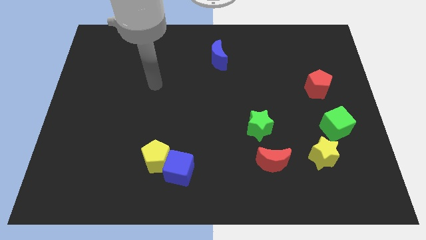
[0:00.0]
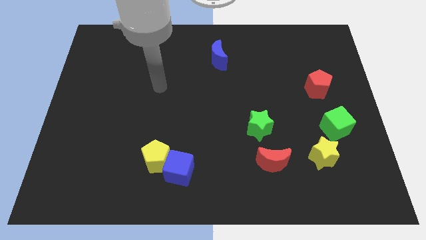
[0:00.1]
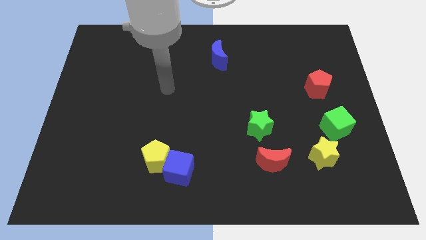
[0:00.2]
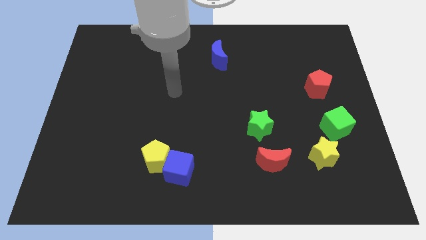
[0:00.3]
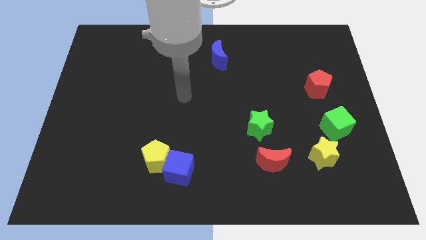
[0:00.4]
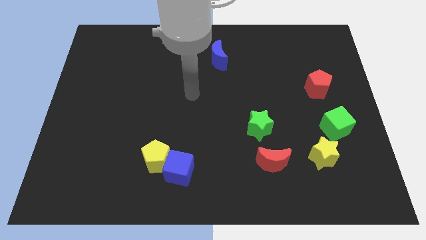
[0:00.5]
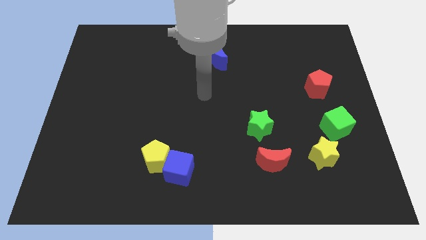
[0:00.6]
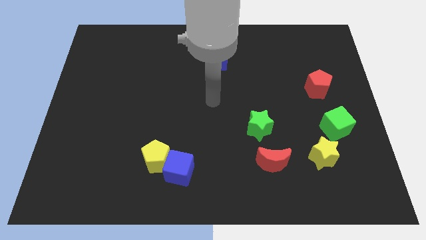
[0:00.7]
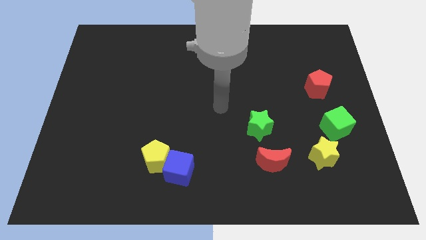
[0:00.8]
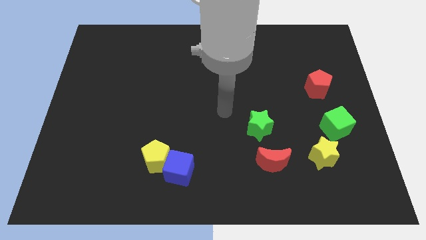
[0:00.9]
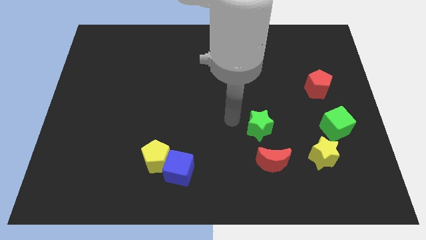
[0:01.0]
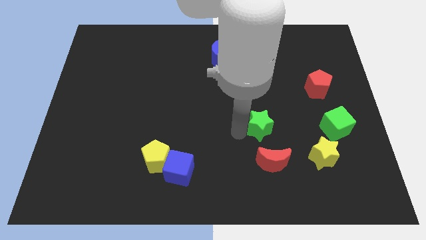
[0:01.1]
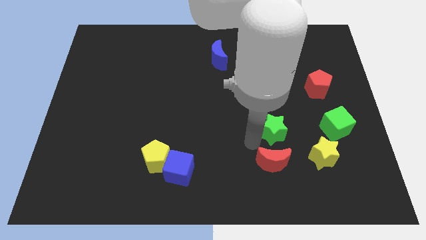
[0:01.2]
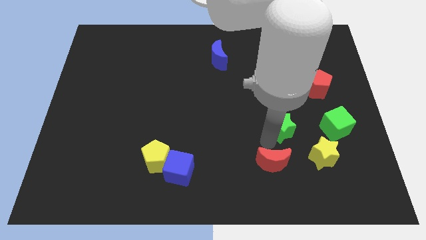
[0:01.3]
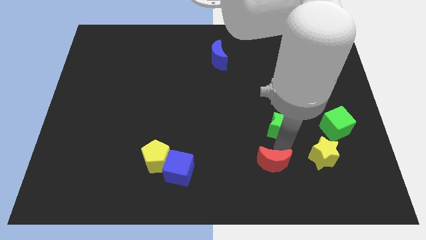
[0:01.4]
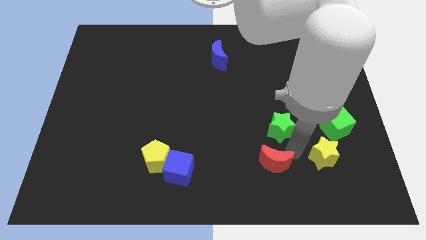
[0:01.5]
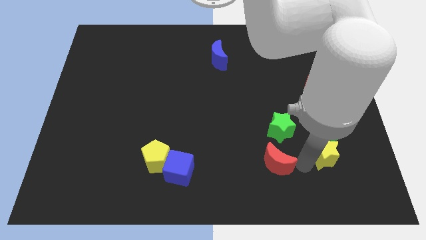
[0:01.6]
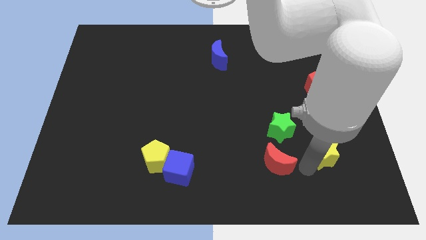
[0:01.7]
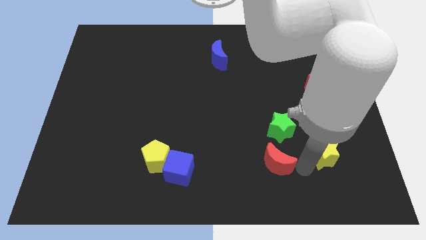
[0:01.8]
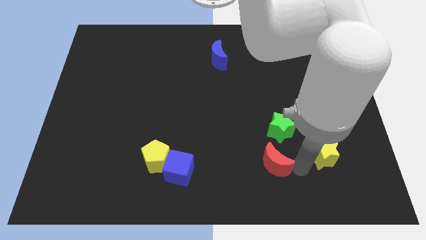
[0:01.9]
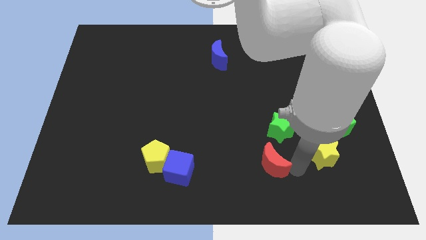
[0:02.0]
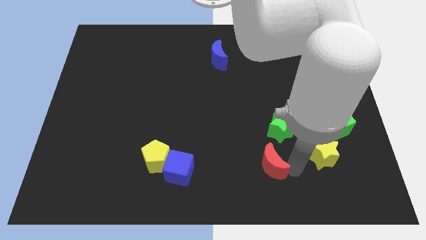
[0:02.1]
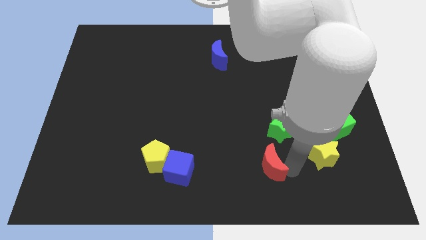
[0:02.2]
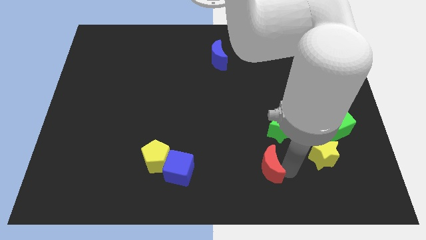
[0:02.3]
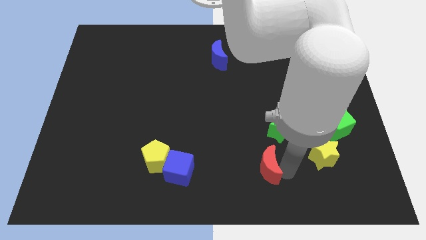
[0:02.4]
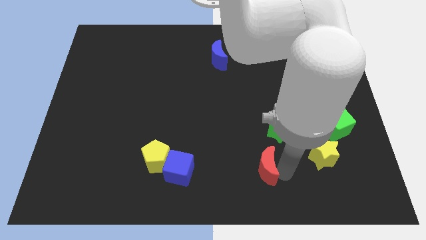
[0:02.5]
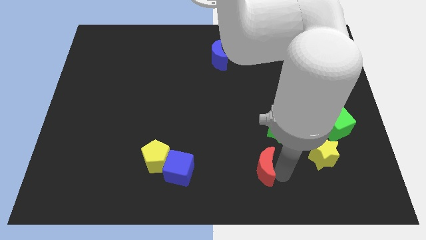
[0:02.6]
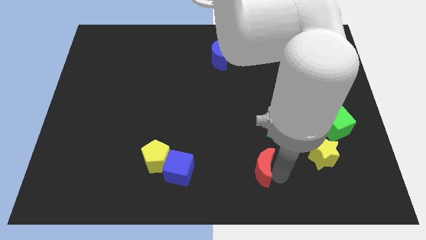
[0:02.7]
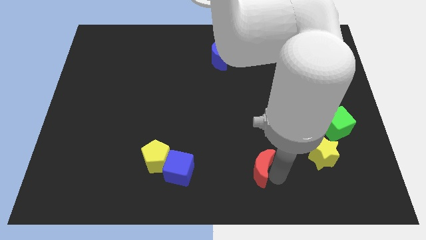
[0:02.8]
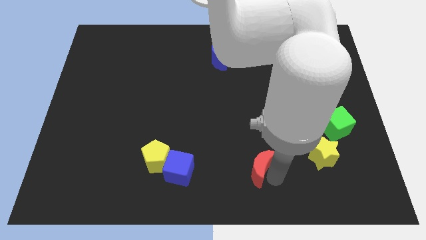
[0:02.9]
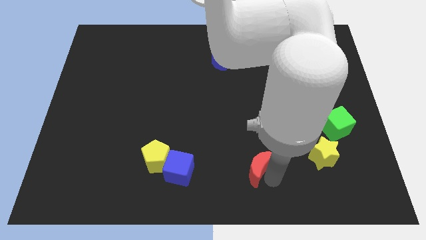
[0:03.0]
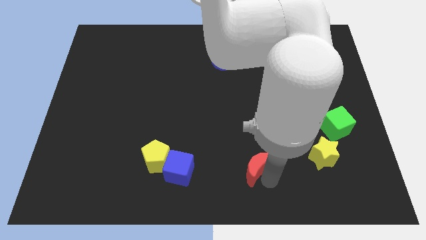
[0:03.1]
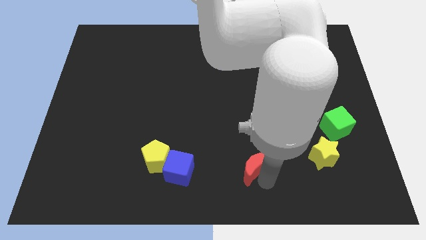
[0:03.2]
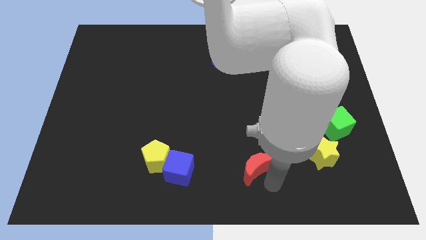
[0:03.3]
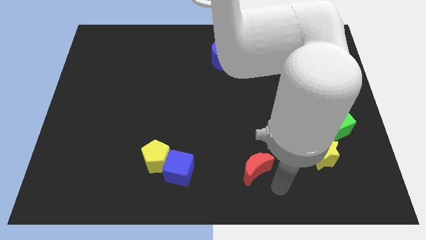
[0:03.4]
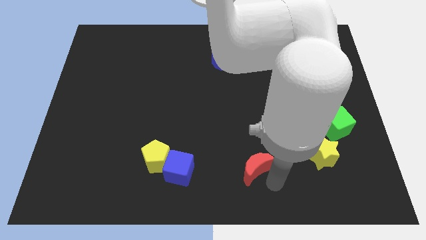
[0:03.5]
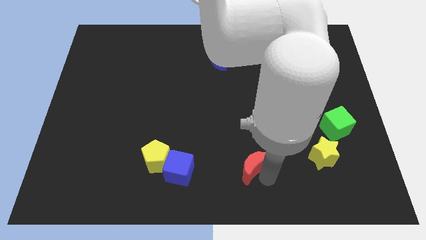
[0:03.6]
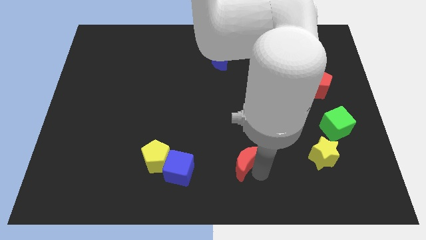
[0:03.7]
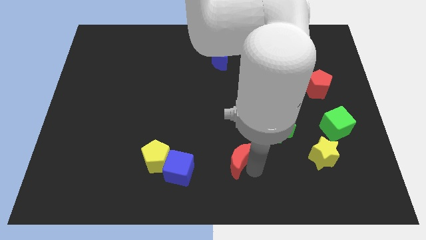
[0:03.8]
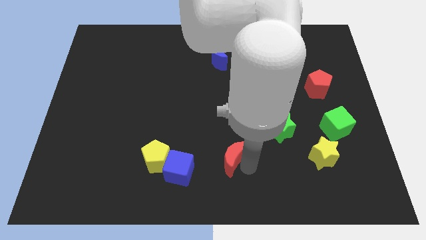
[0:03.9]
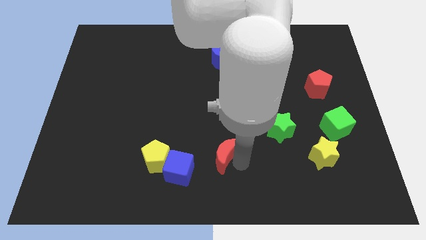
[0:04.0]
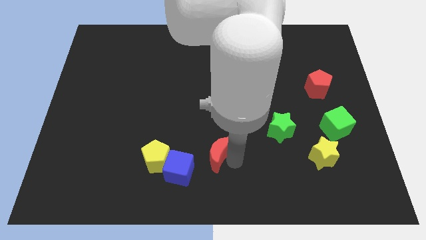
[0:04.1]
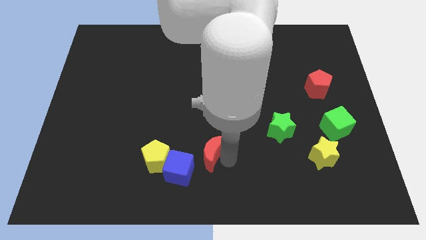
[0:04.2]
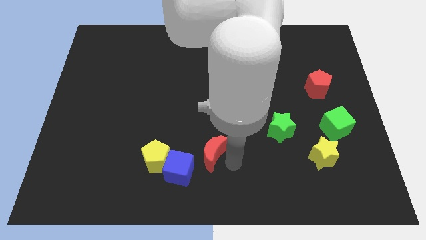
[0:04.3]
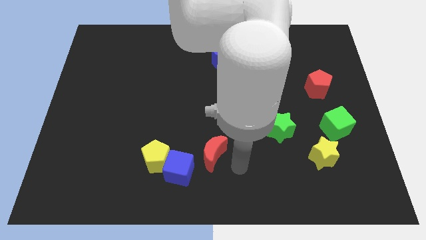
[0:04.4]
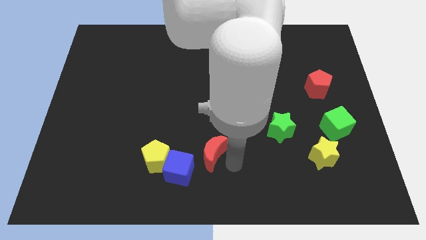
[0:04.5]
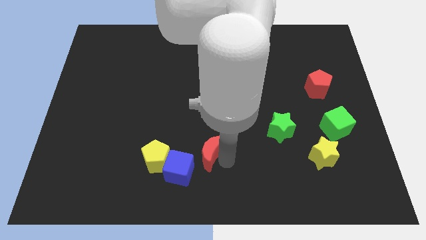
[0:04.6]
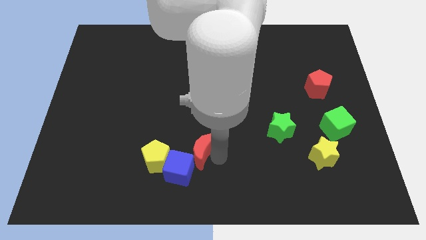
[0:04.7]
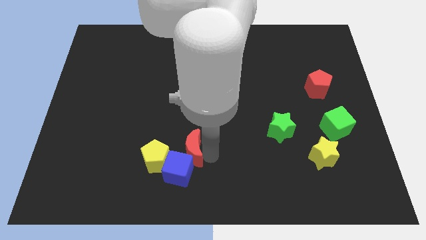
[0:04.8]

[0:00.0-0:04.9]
push the red moon to the top right of the yellow pentagon

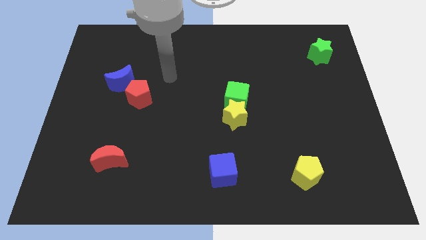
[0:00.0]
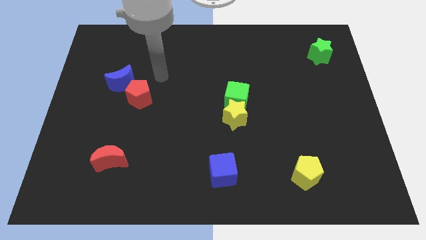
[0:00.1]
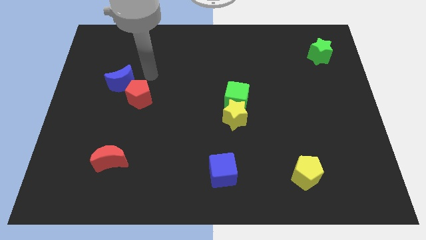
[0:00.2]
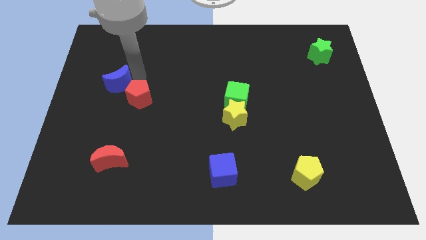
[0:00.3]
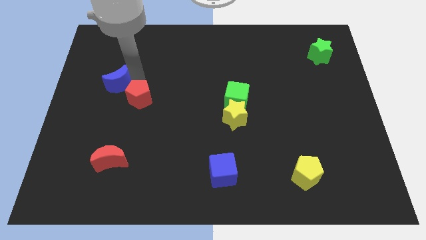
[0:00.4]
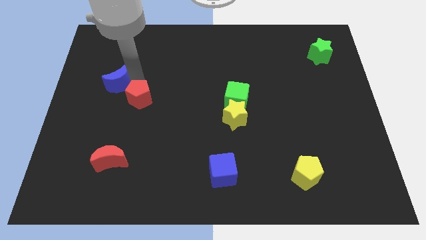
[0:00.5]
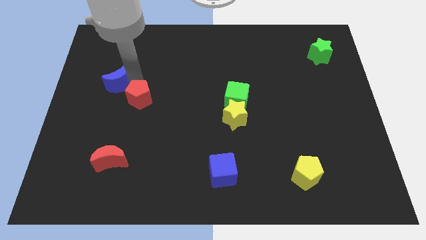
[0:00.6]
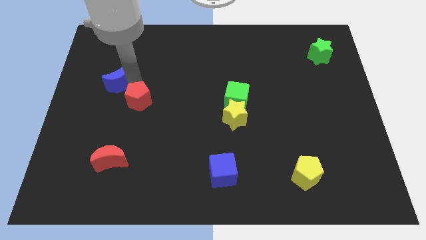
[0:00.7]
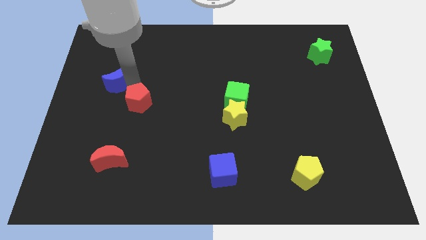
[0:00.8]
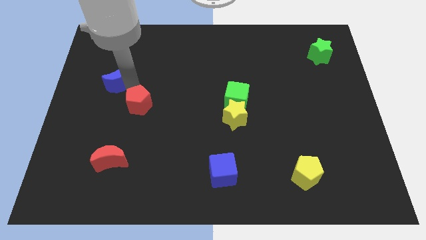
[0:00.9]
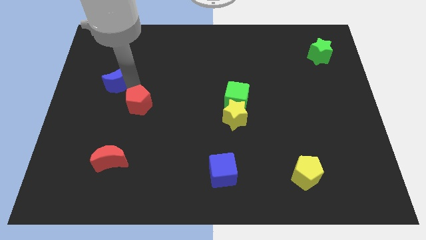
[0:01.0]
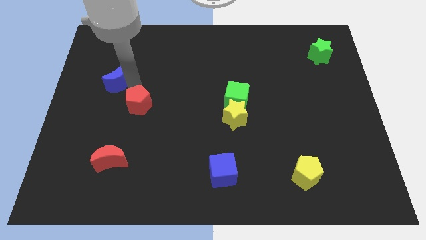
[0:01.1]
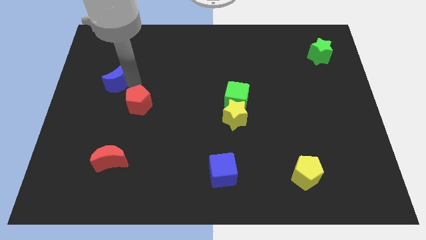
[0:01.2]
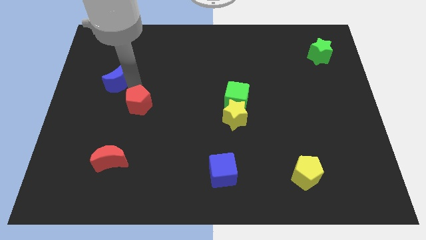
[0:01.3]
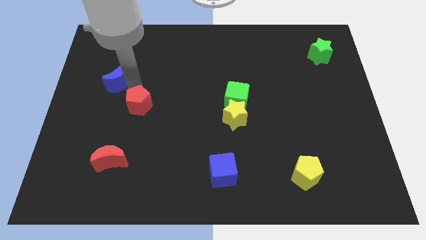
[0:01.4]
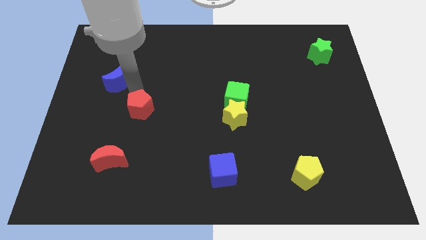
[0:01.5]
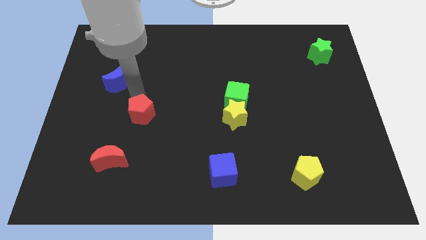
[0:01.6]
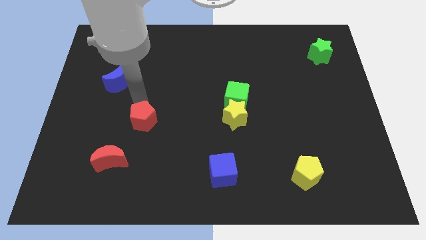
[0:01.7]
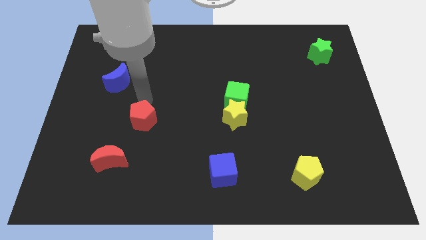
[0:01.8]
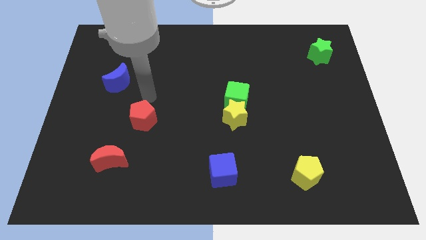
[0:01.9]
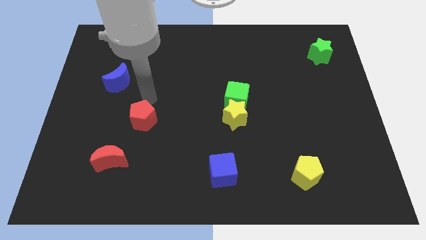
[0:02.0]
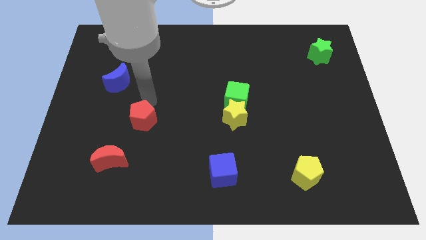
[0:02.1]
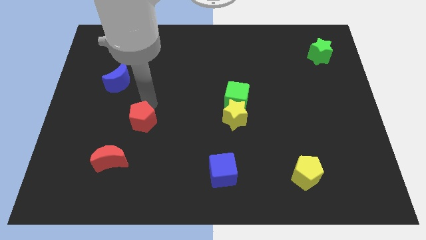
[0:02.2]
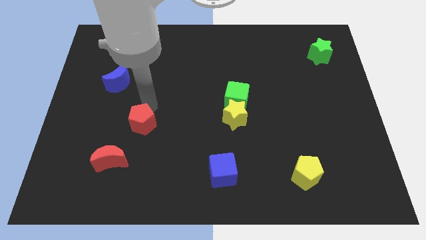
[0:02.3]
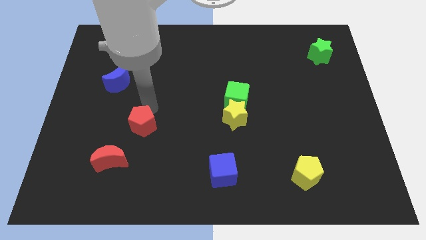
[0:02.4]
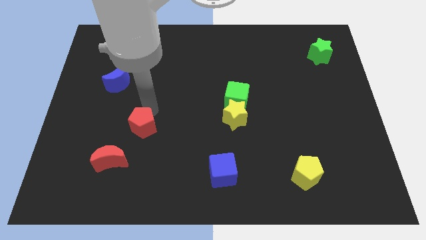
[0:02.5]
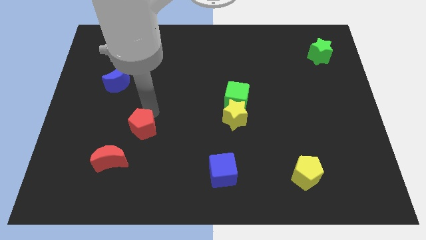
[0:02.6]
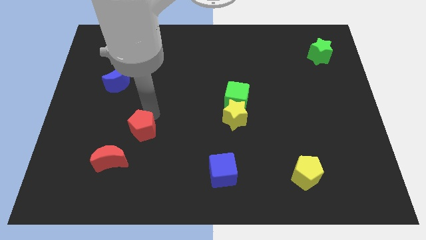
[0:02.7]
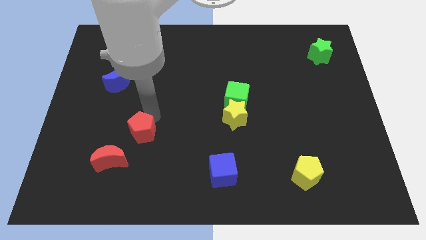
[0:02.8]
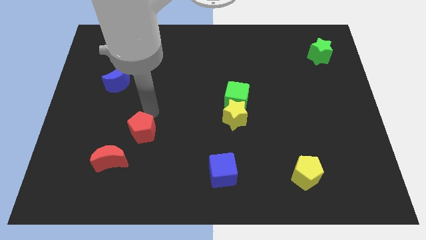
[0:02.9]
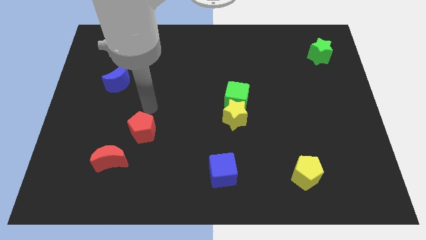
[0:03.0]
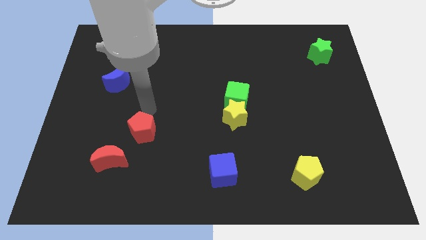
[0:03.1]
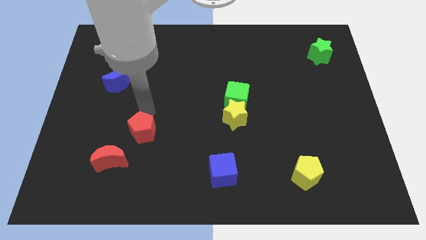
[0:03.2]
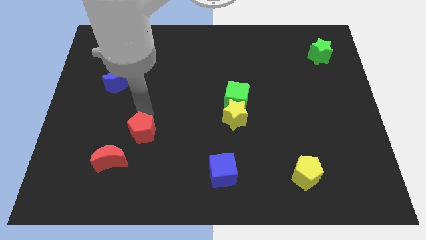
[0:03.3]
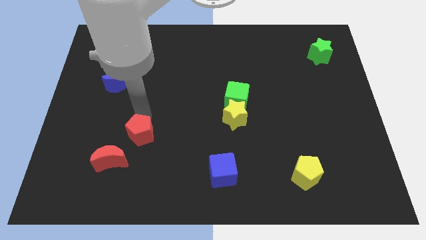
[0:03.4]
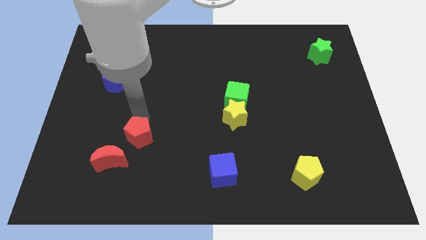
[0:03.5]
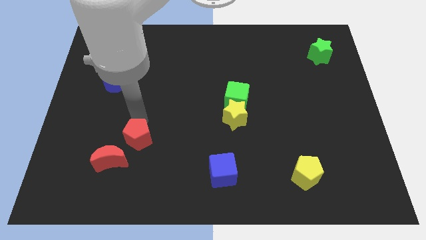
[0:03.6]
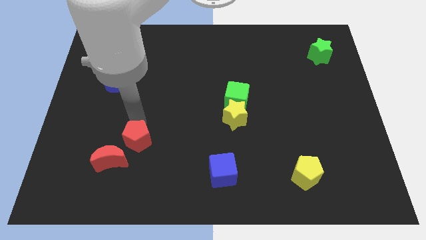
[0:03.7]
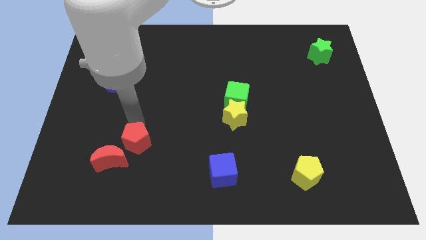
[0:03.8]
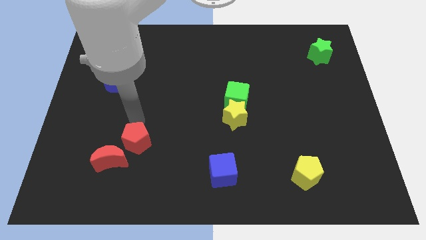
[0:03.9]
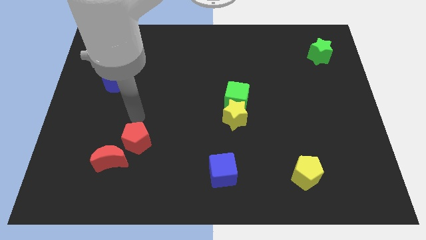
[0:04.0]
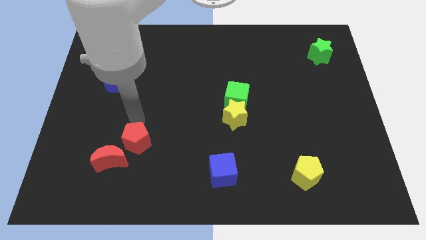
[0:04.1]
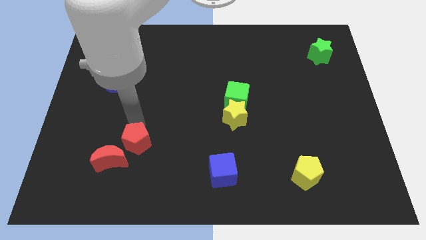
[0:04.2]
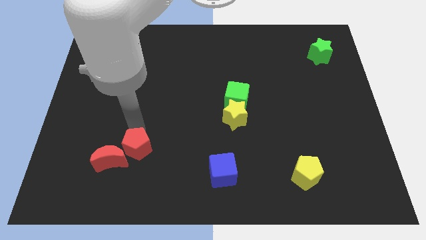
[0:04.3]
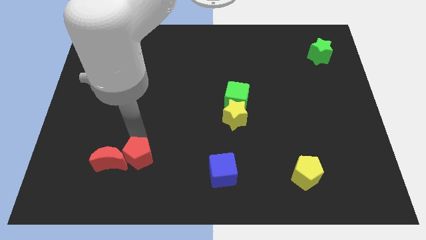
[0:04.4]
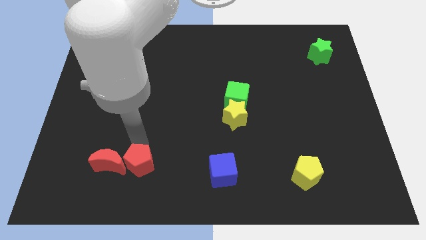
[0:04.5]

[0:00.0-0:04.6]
push the red pentagon to the bottom right of the red moon
